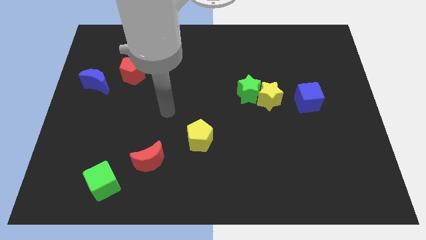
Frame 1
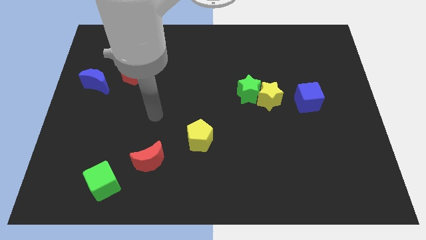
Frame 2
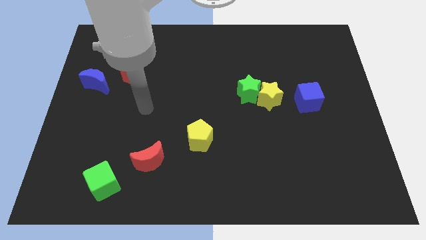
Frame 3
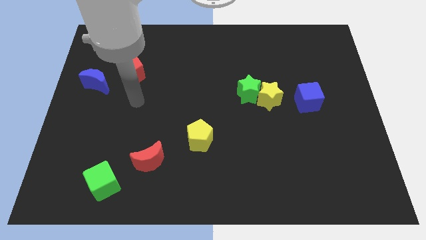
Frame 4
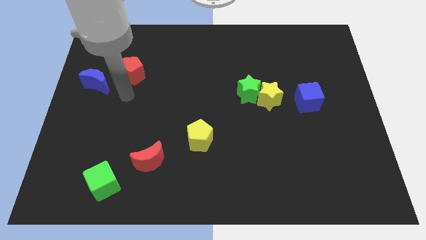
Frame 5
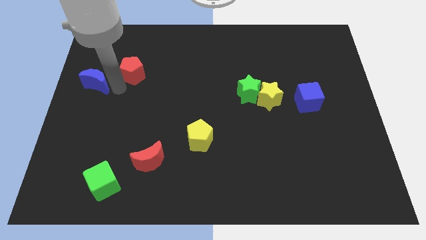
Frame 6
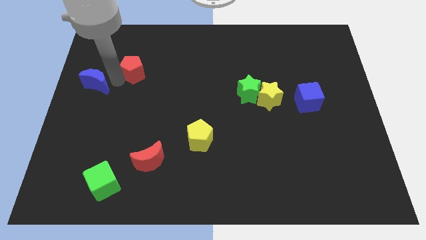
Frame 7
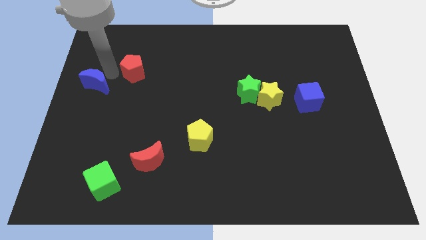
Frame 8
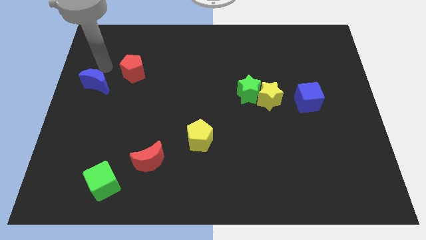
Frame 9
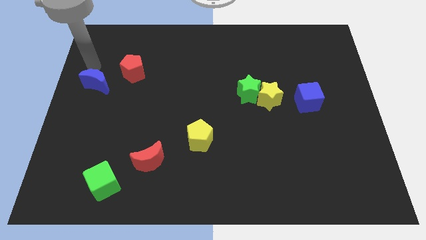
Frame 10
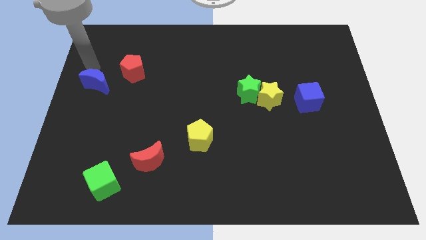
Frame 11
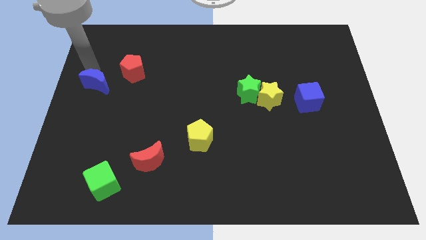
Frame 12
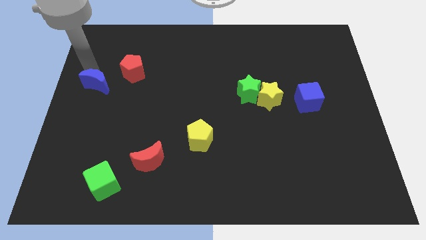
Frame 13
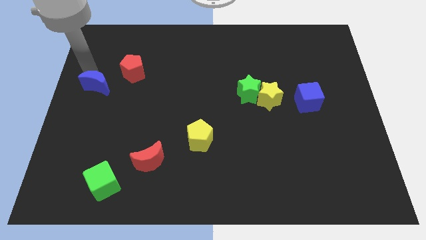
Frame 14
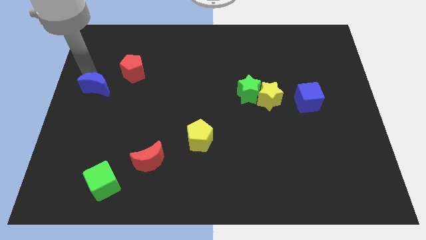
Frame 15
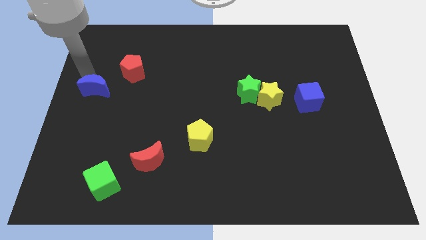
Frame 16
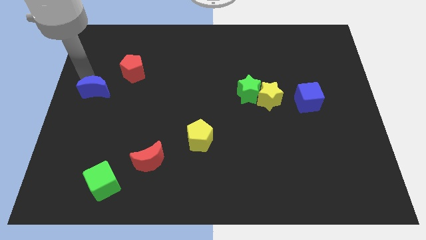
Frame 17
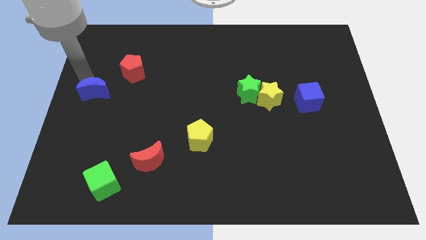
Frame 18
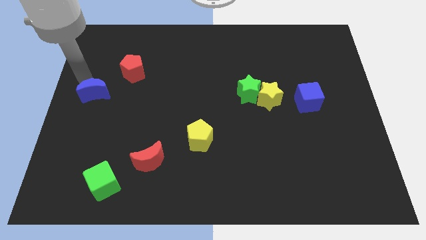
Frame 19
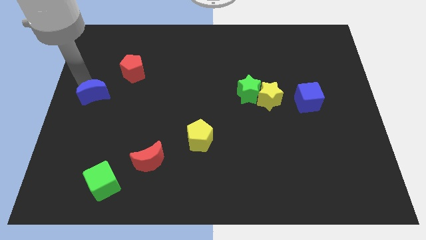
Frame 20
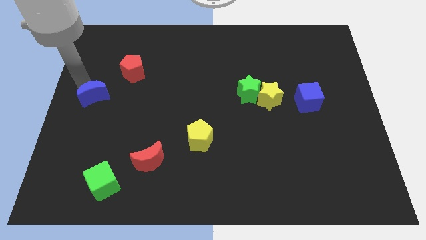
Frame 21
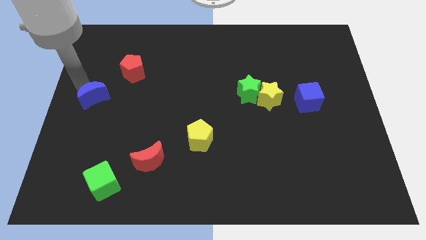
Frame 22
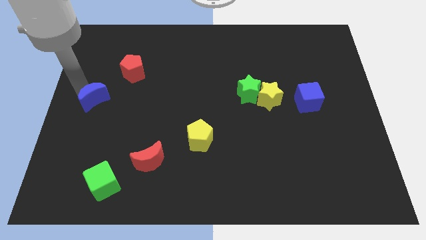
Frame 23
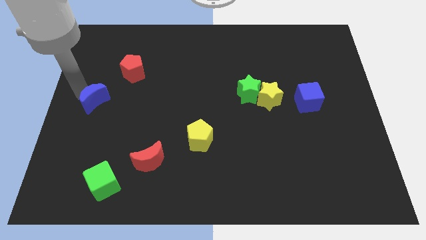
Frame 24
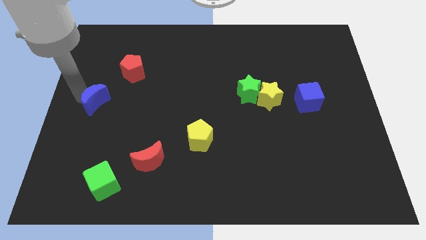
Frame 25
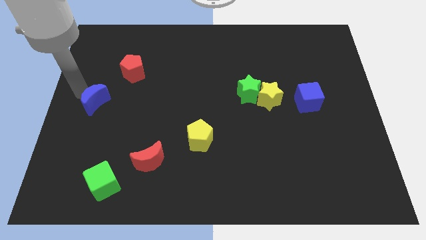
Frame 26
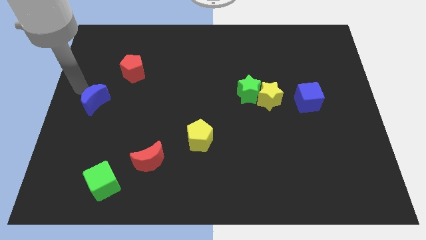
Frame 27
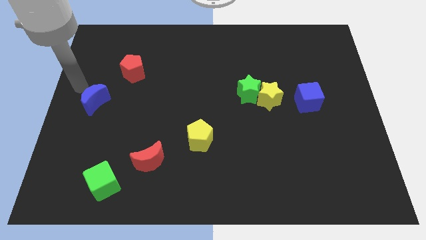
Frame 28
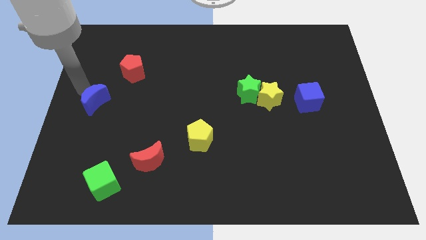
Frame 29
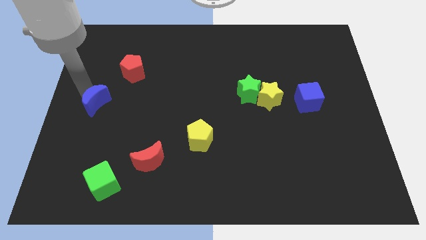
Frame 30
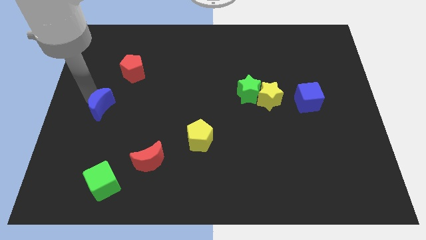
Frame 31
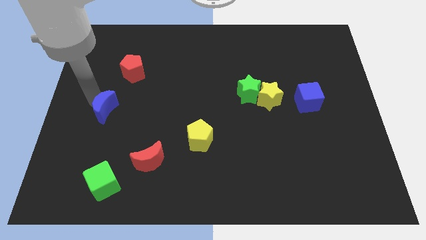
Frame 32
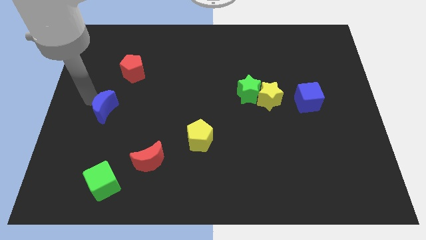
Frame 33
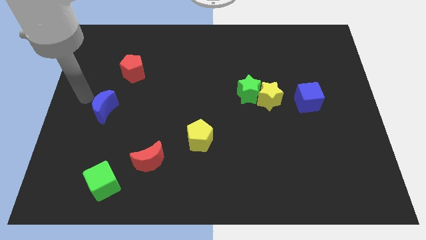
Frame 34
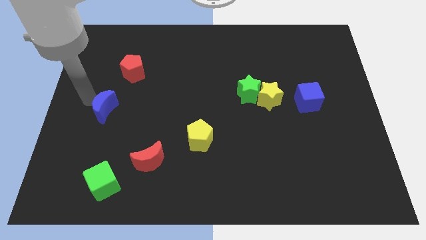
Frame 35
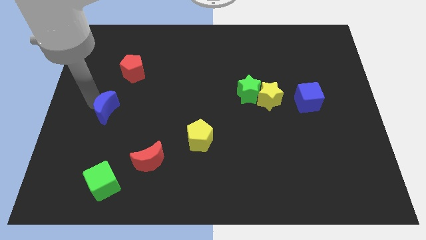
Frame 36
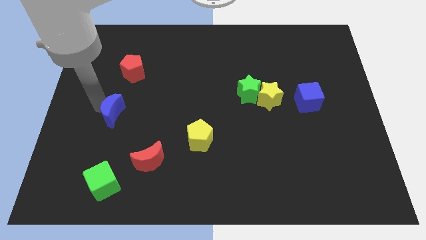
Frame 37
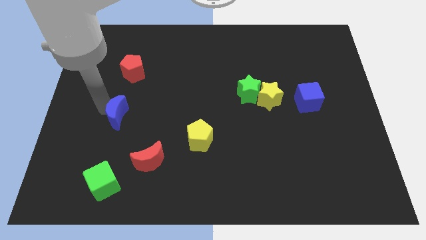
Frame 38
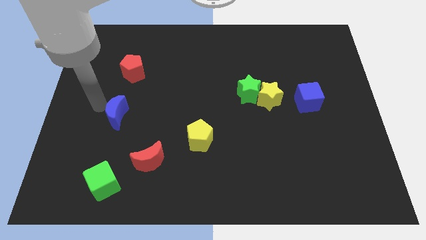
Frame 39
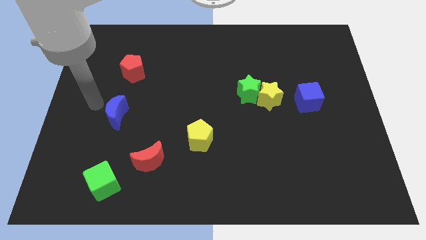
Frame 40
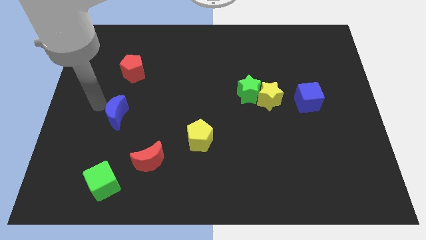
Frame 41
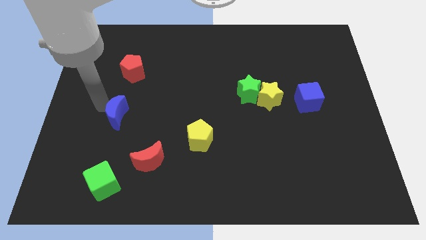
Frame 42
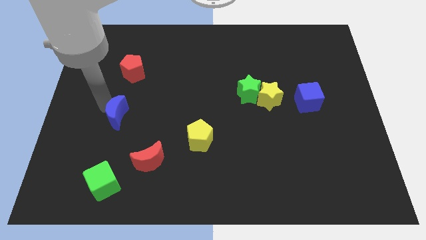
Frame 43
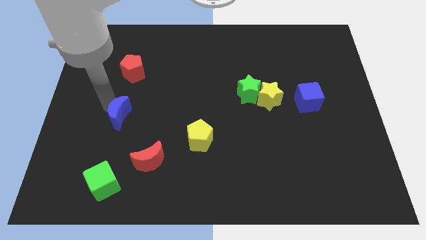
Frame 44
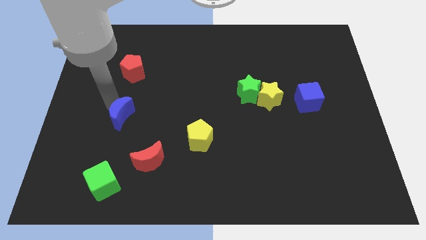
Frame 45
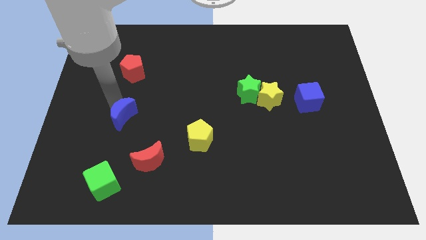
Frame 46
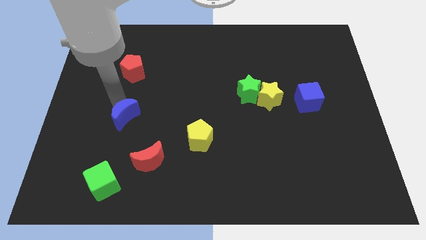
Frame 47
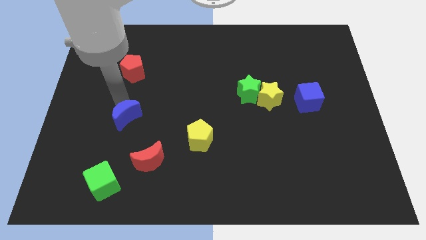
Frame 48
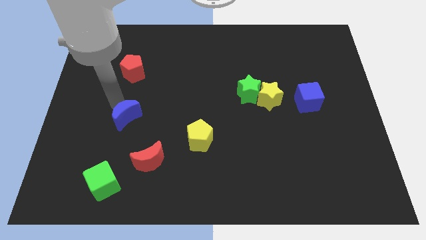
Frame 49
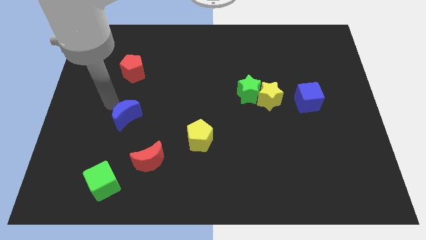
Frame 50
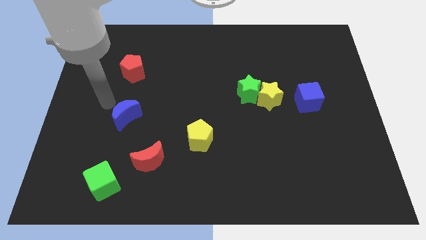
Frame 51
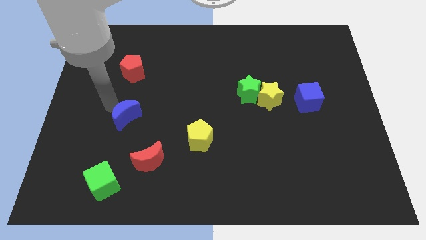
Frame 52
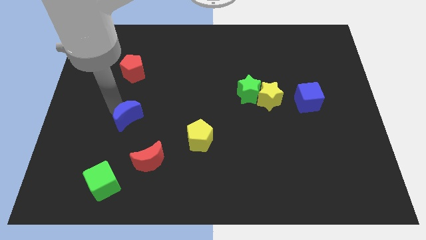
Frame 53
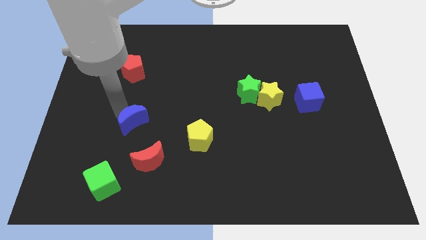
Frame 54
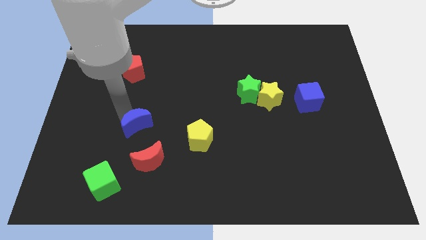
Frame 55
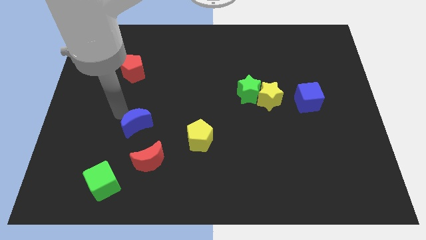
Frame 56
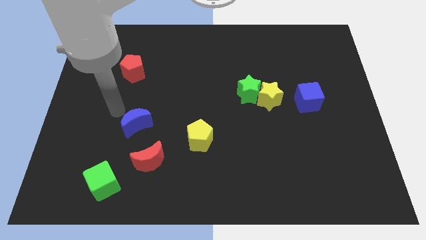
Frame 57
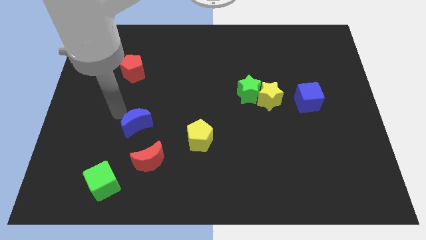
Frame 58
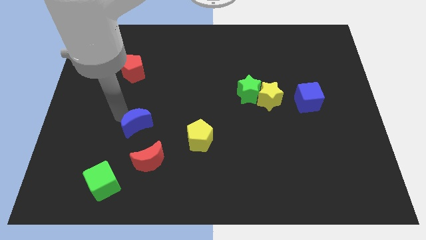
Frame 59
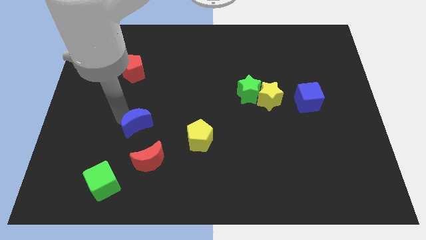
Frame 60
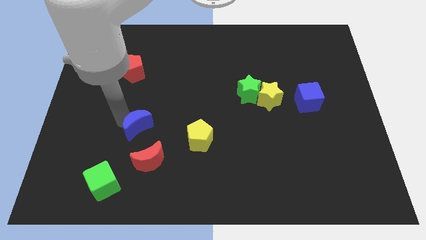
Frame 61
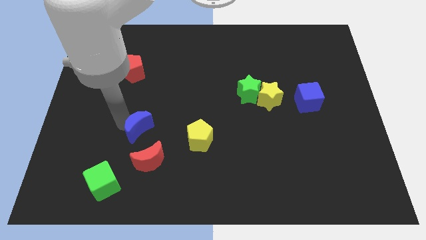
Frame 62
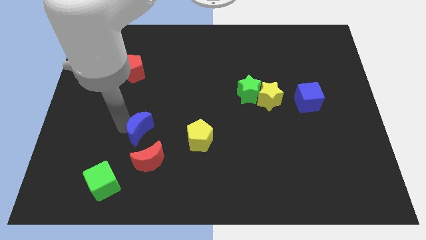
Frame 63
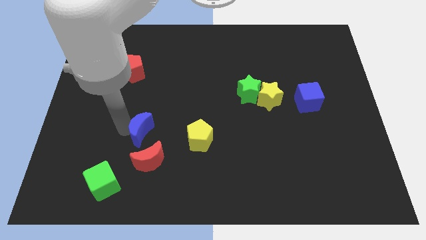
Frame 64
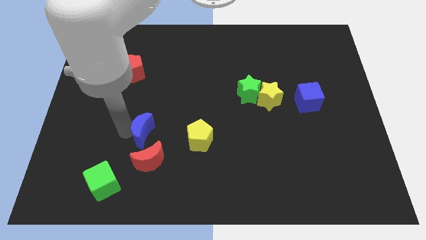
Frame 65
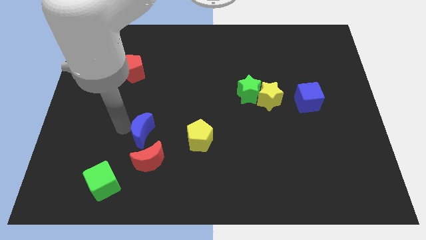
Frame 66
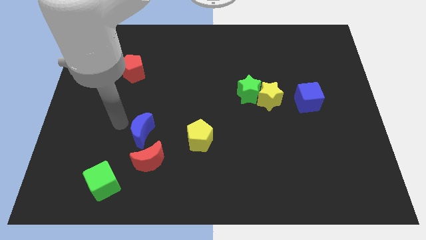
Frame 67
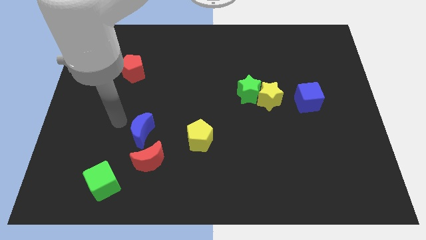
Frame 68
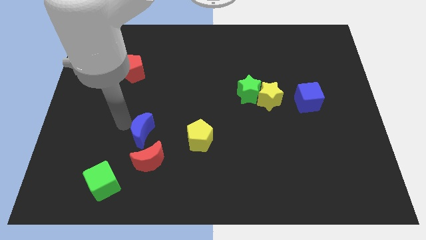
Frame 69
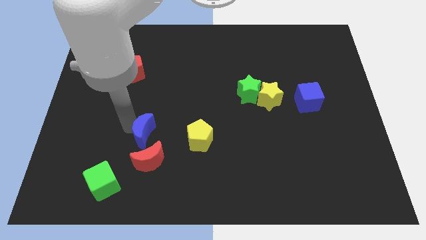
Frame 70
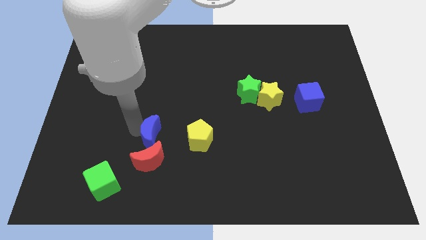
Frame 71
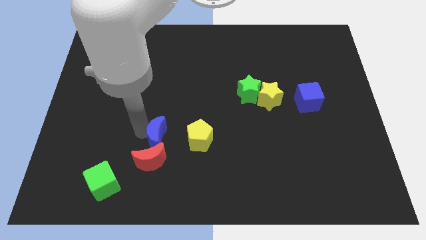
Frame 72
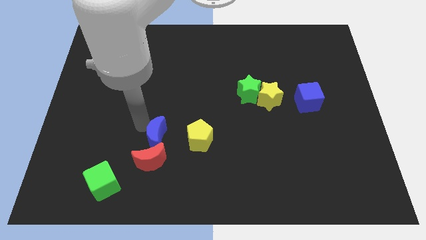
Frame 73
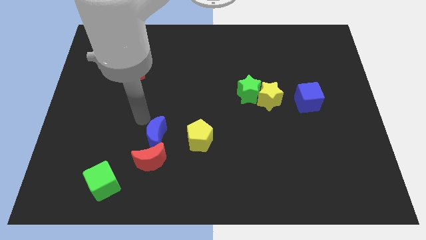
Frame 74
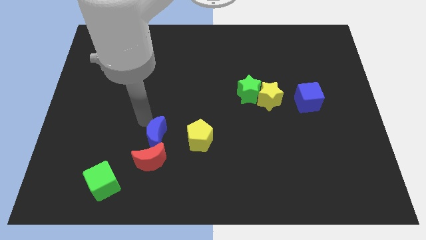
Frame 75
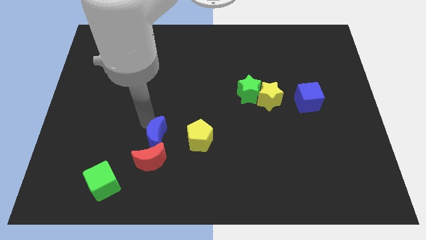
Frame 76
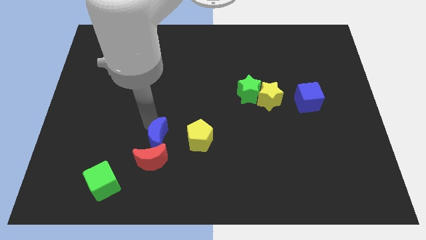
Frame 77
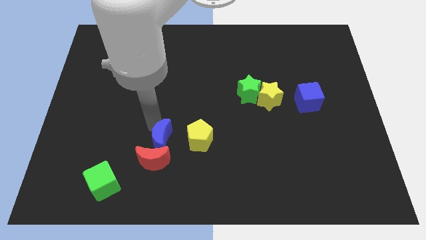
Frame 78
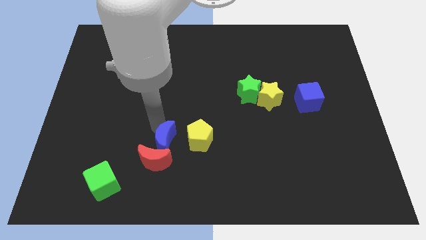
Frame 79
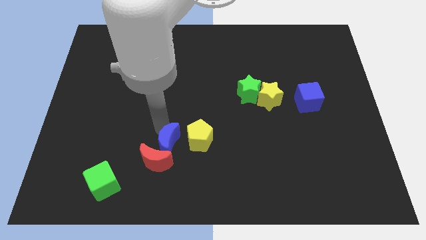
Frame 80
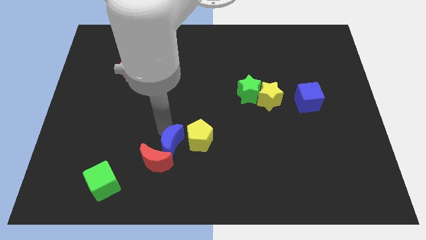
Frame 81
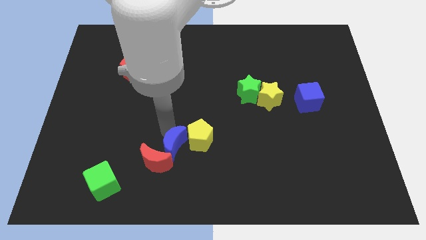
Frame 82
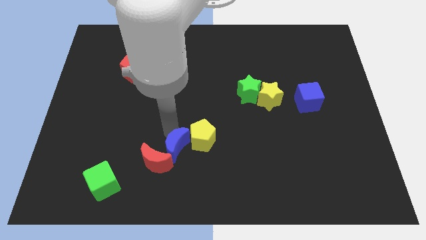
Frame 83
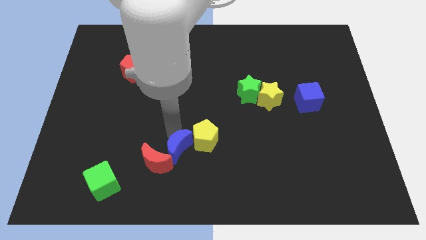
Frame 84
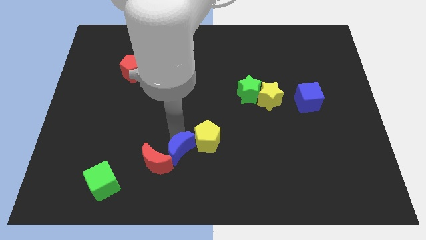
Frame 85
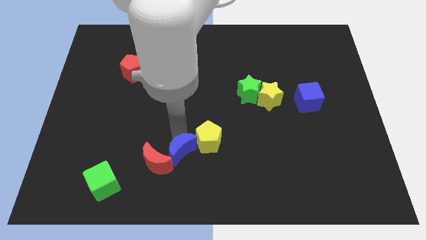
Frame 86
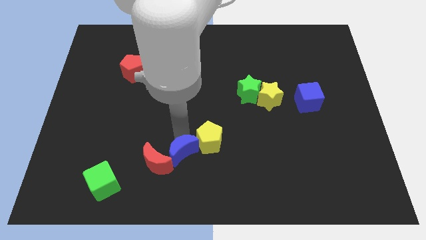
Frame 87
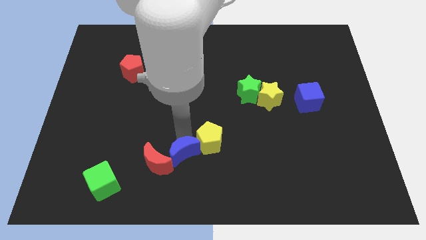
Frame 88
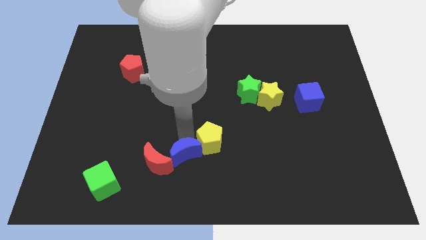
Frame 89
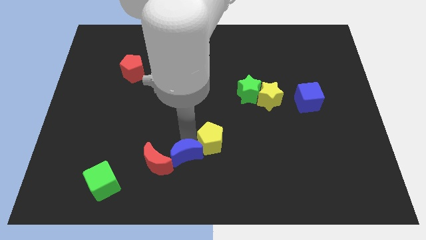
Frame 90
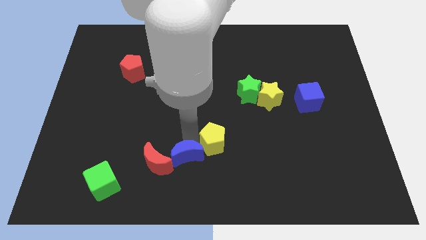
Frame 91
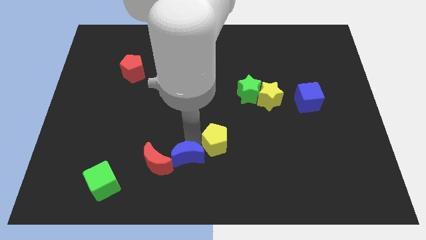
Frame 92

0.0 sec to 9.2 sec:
move the blue moon to the bottom side
